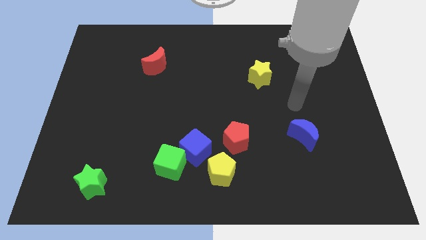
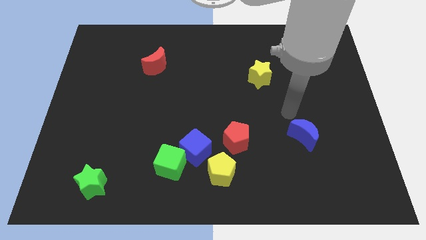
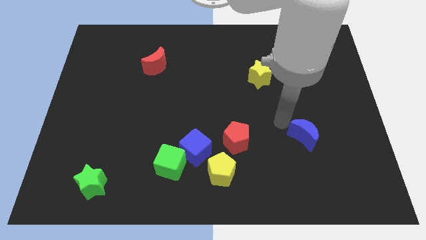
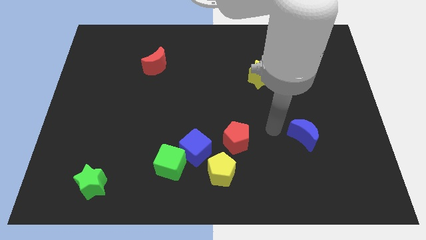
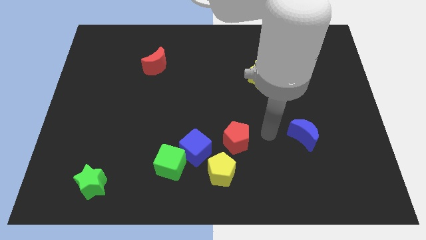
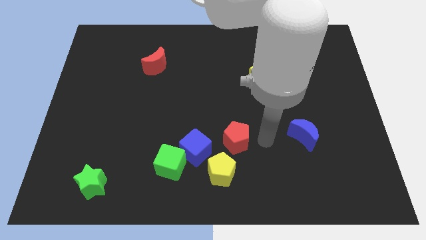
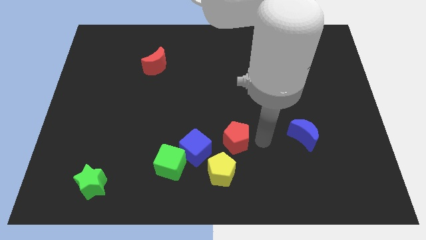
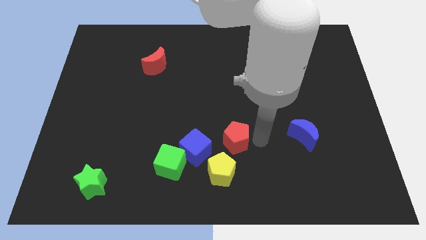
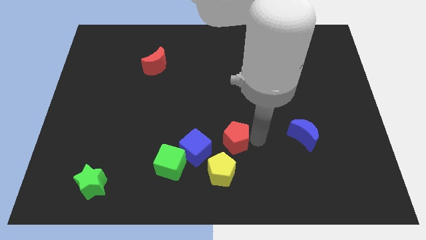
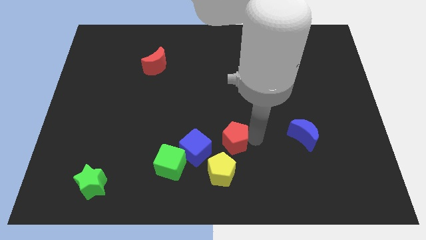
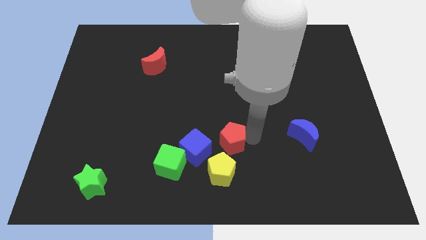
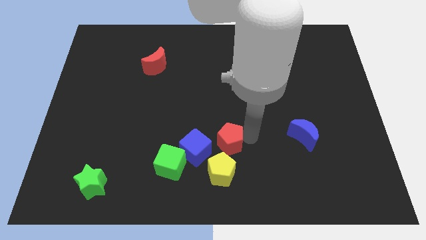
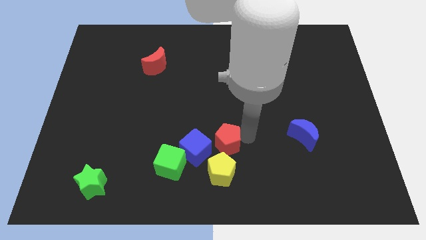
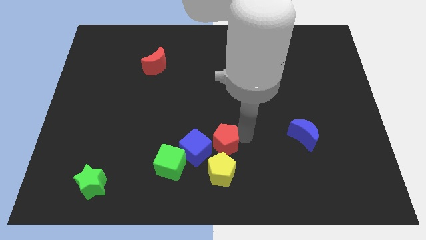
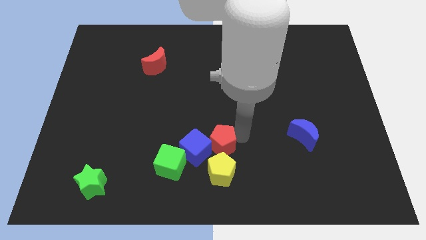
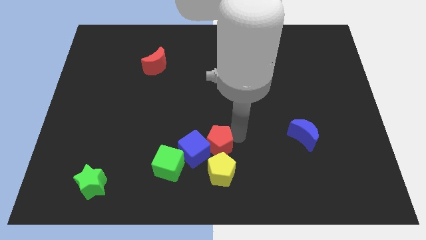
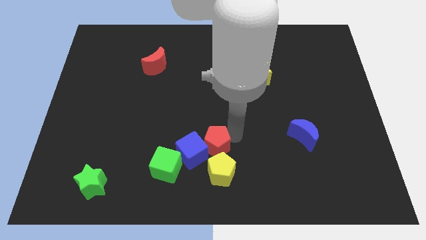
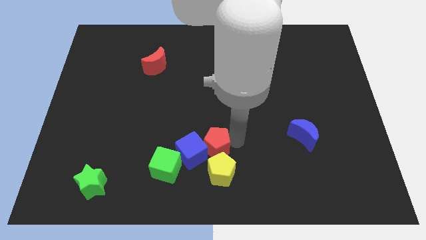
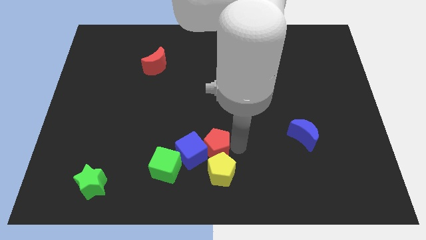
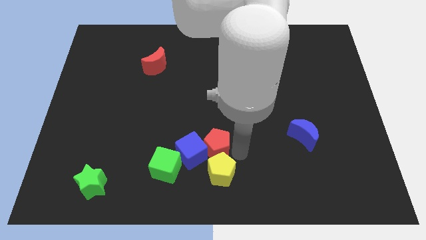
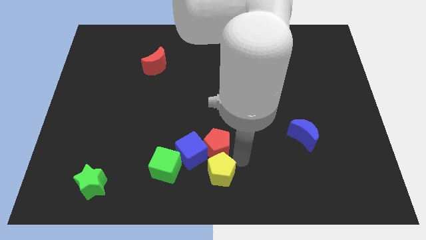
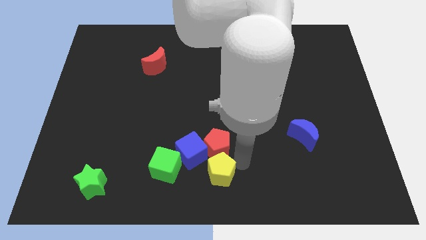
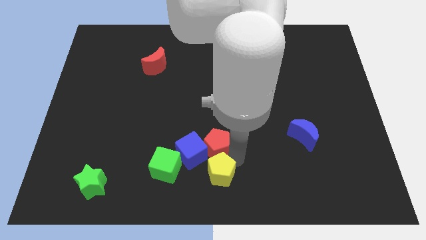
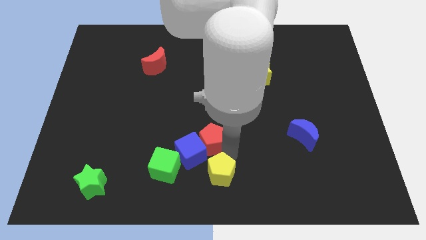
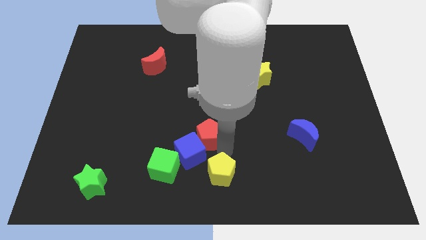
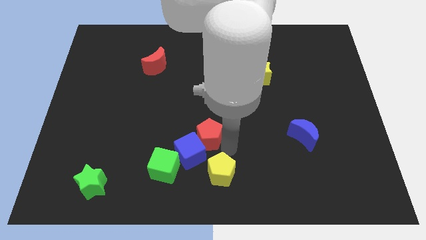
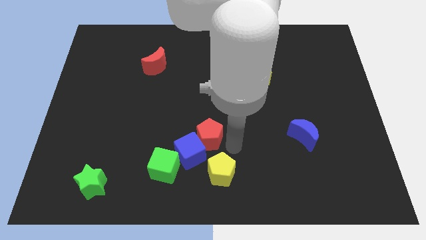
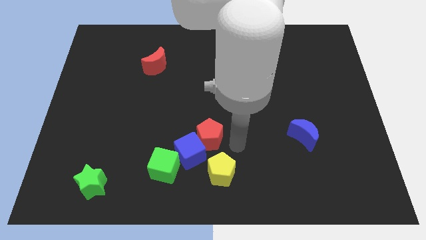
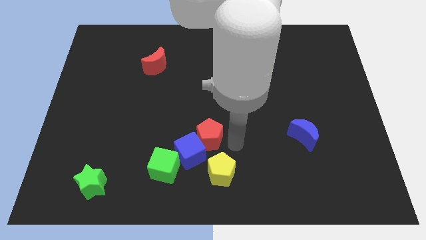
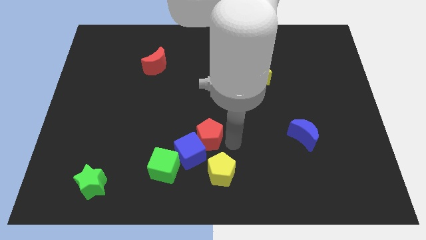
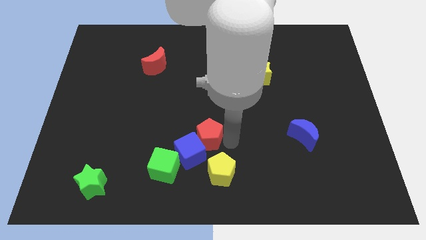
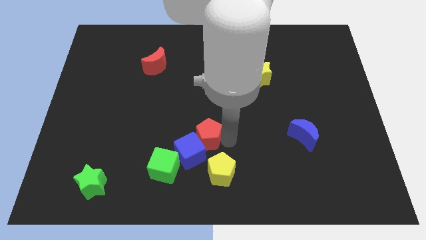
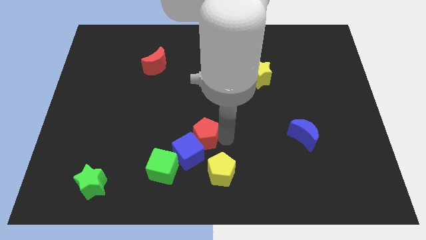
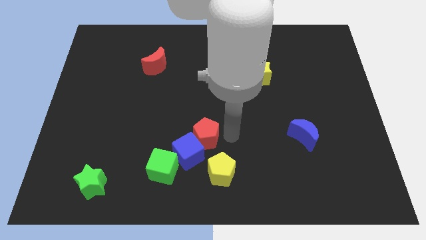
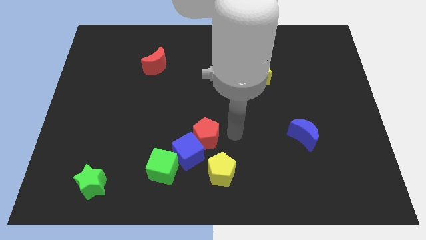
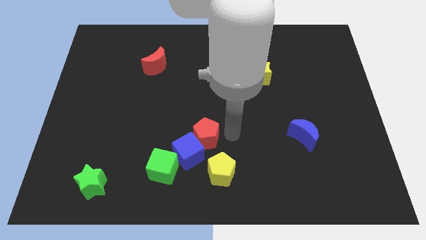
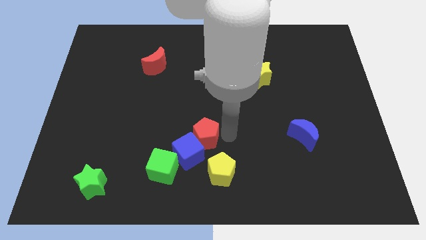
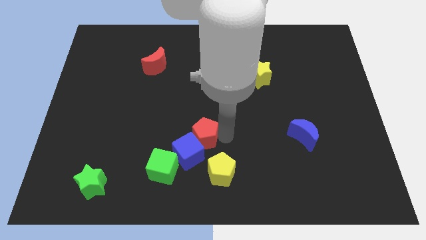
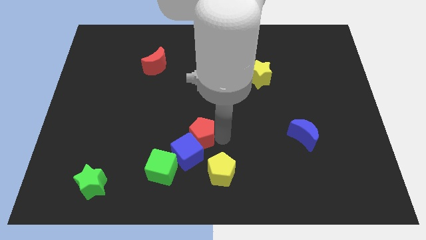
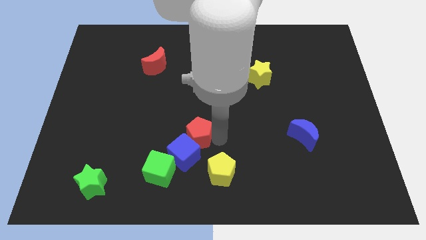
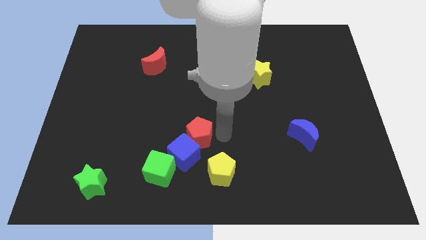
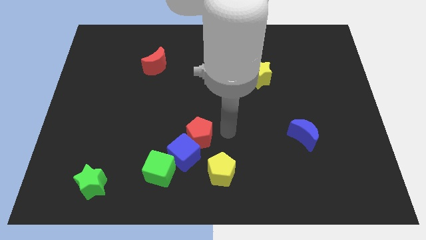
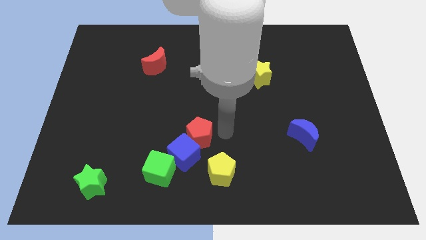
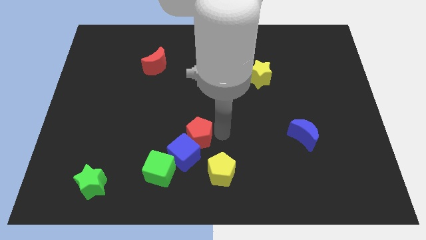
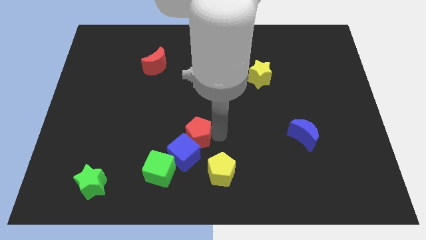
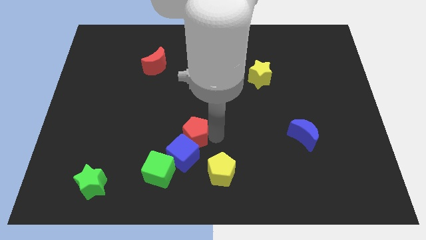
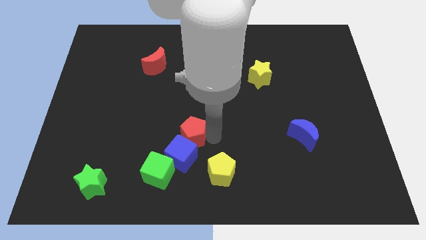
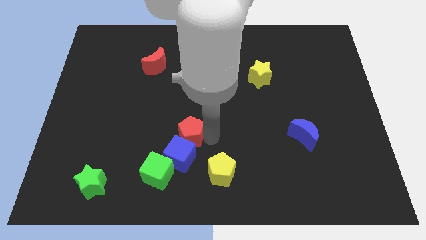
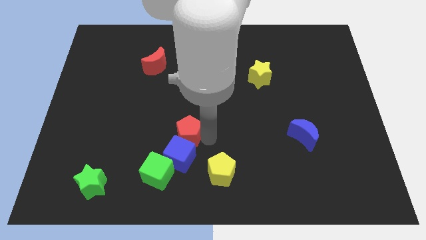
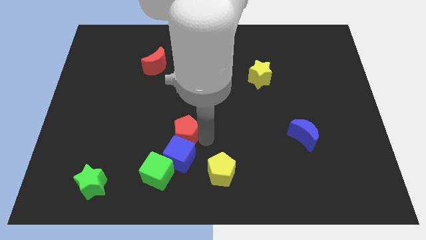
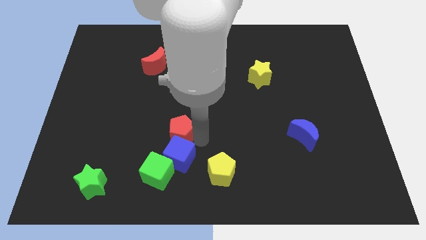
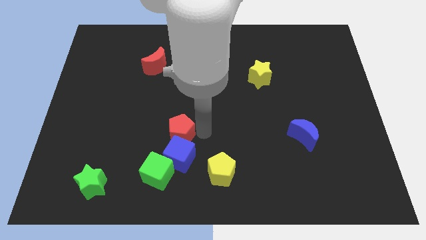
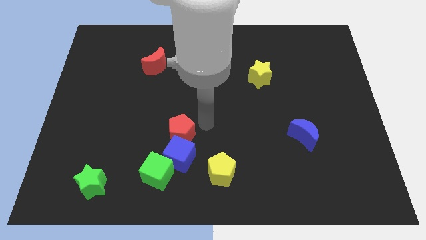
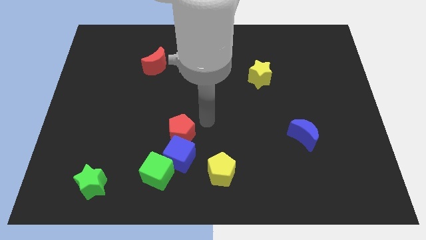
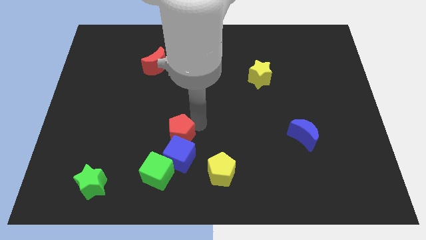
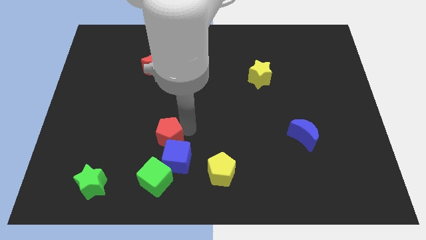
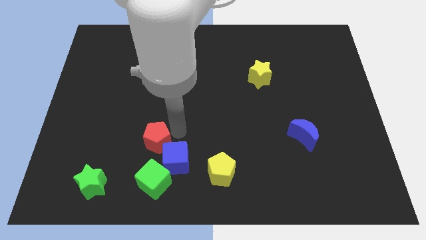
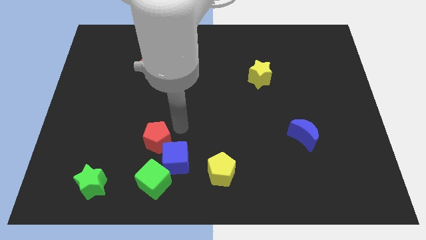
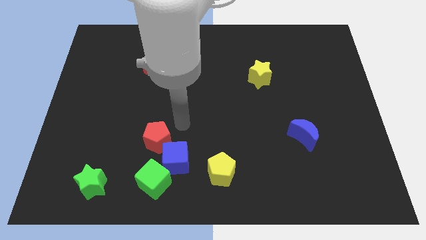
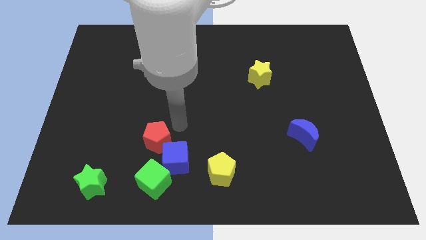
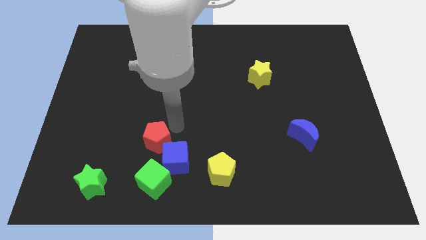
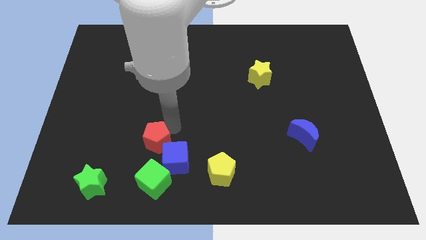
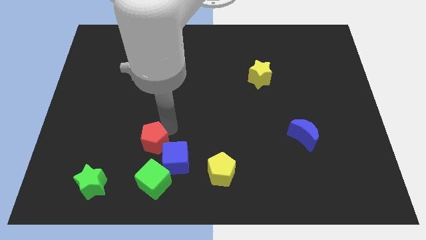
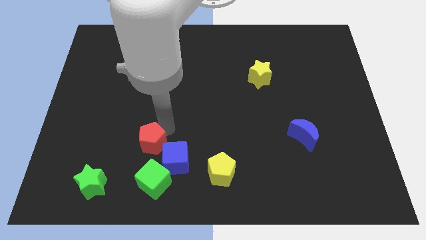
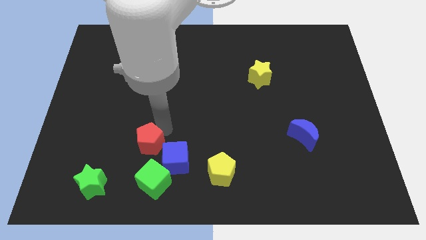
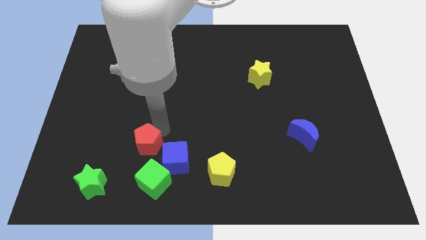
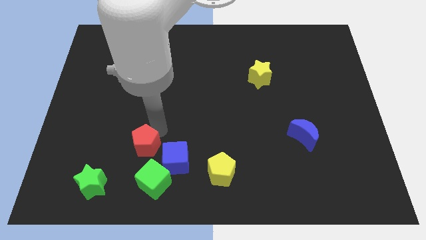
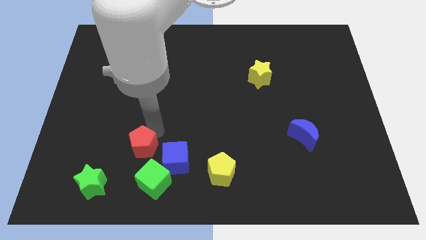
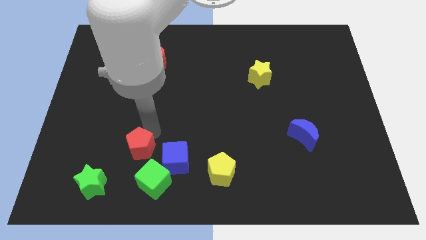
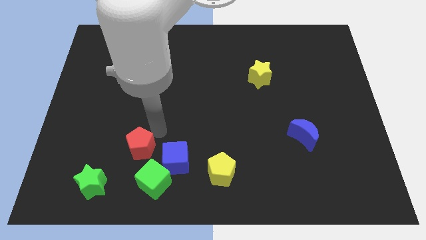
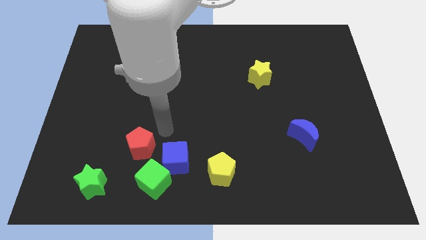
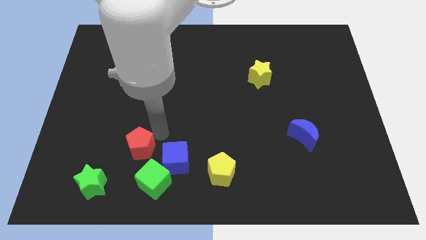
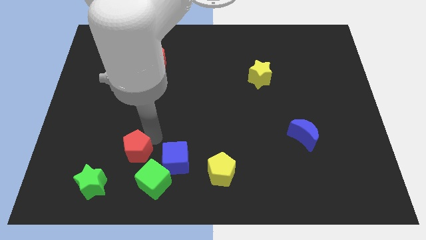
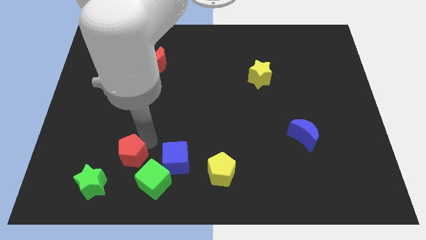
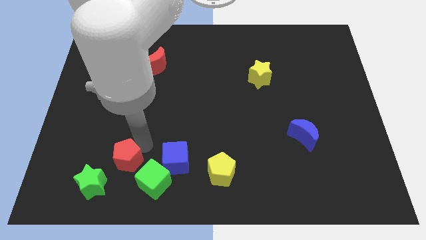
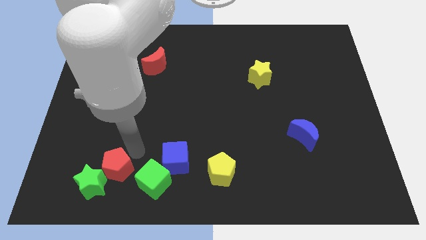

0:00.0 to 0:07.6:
slide the red pentagon towards the green star
